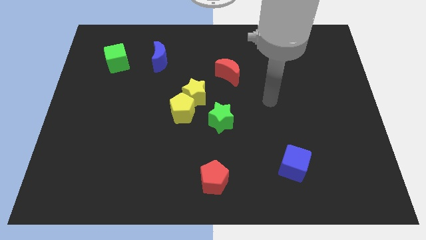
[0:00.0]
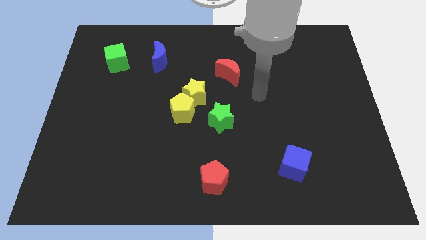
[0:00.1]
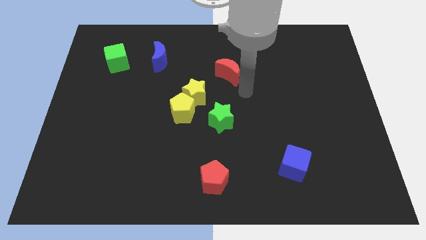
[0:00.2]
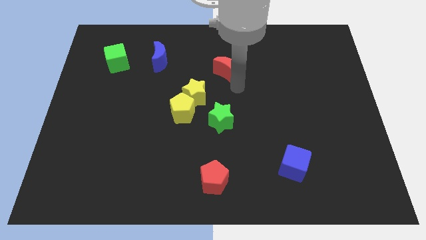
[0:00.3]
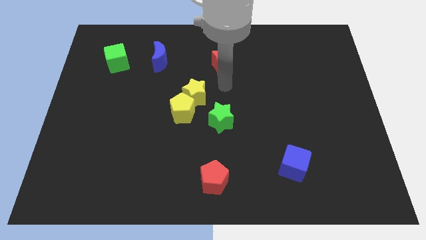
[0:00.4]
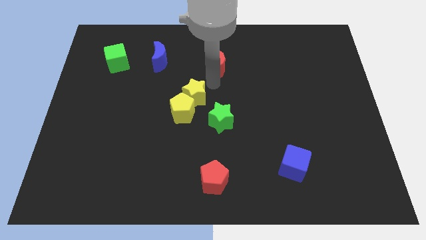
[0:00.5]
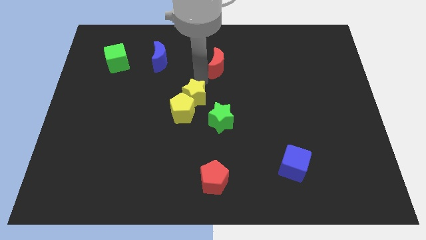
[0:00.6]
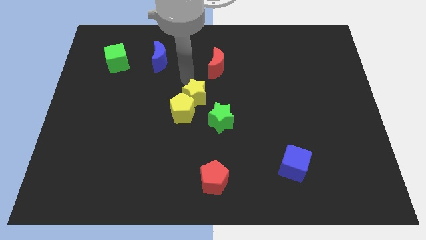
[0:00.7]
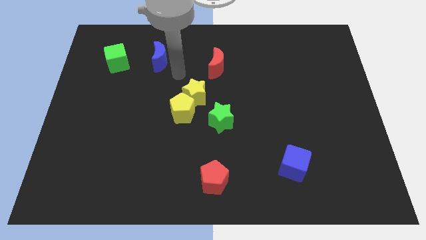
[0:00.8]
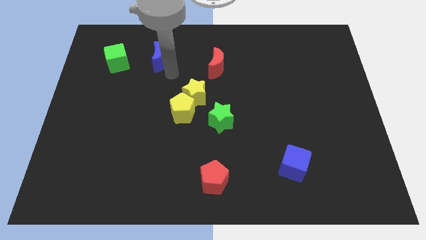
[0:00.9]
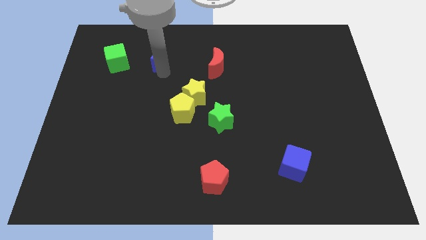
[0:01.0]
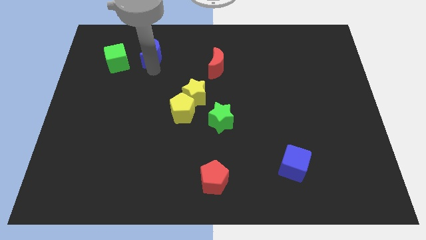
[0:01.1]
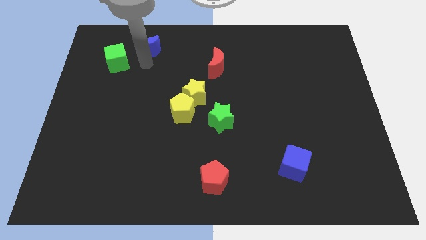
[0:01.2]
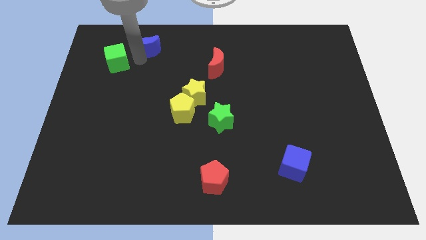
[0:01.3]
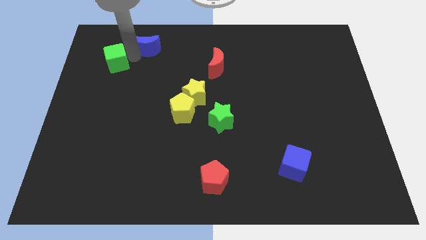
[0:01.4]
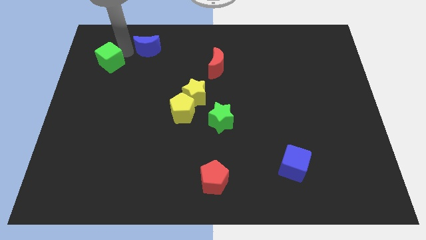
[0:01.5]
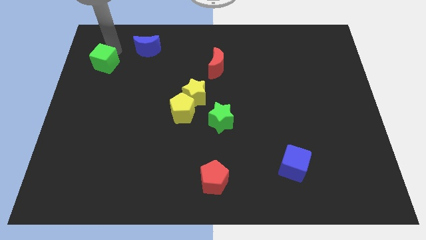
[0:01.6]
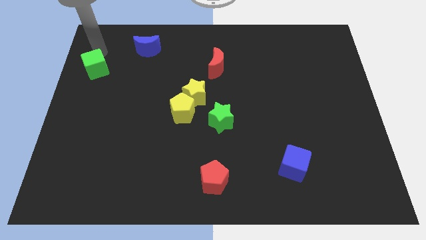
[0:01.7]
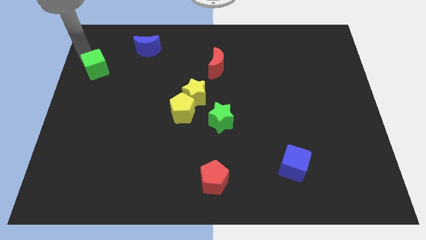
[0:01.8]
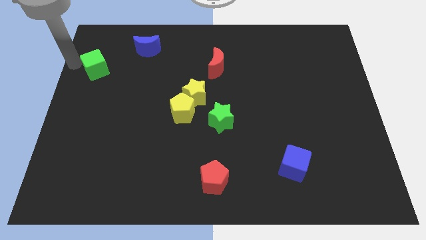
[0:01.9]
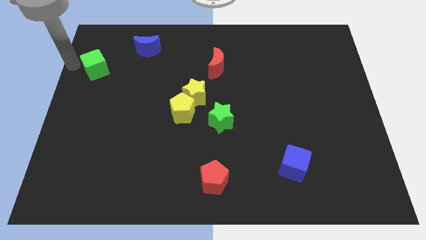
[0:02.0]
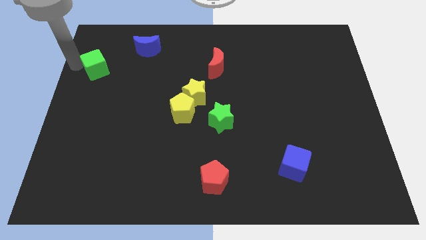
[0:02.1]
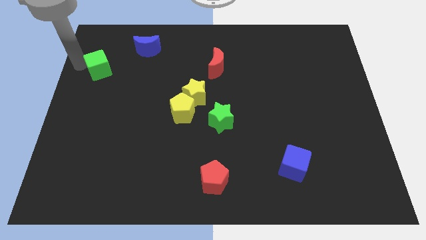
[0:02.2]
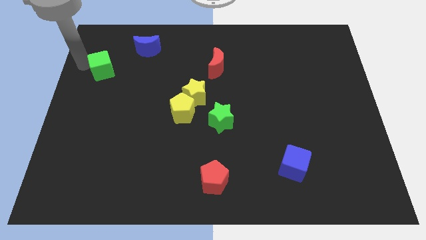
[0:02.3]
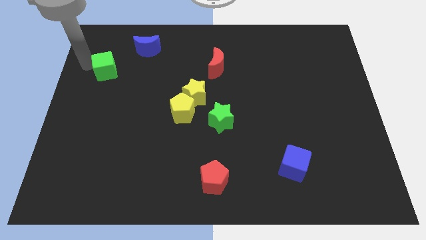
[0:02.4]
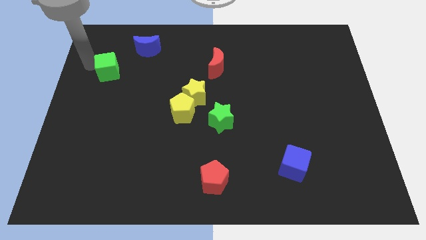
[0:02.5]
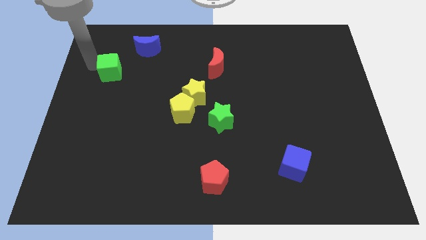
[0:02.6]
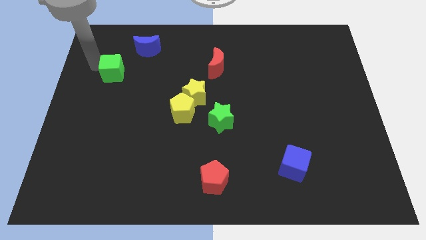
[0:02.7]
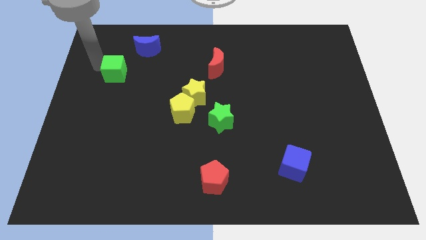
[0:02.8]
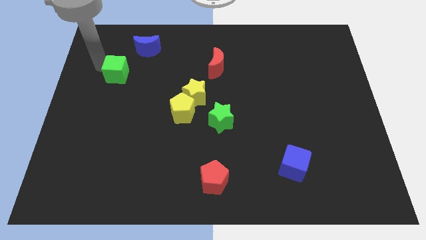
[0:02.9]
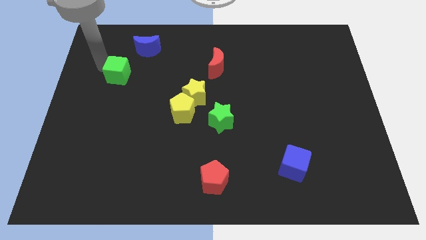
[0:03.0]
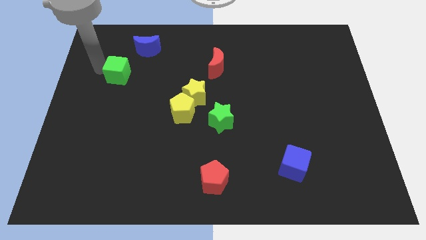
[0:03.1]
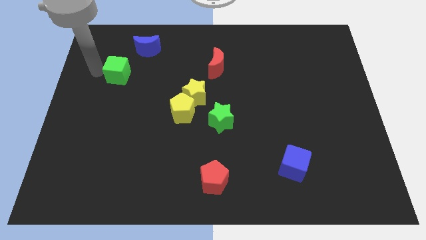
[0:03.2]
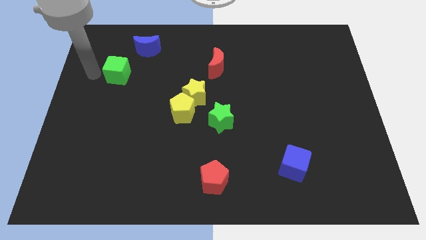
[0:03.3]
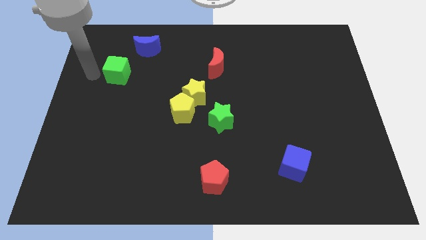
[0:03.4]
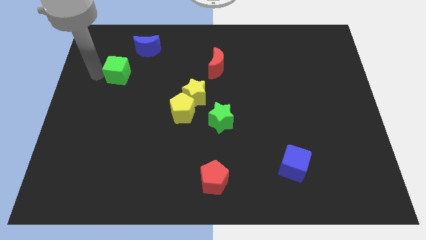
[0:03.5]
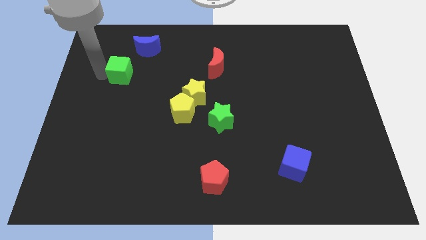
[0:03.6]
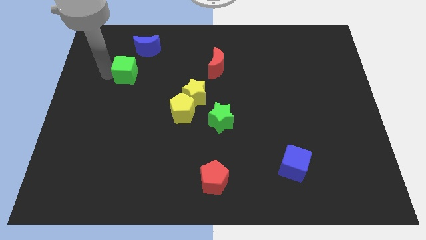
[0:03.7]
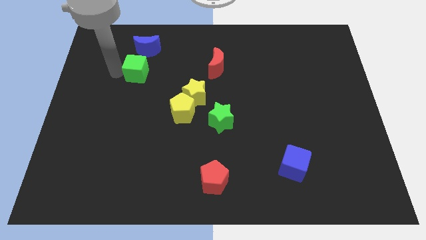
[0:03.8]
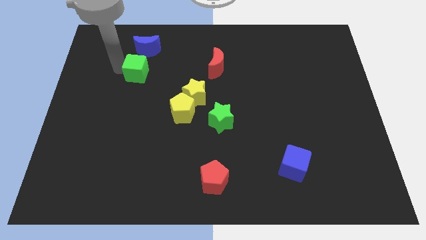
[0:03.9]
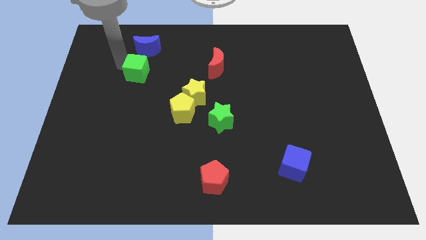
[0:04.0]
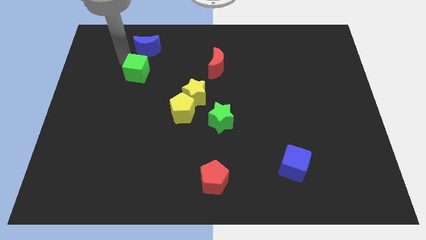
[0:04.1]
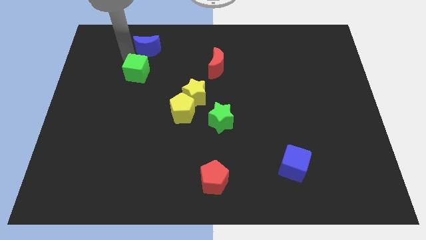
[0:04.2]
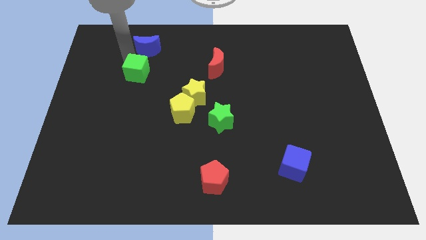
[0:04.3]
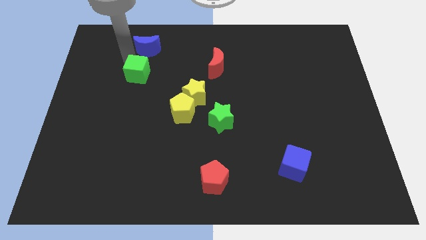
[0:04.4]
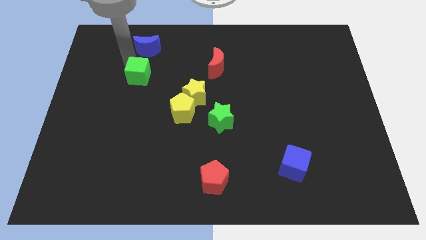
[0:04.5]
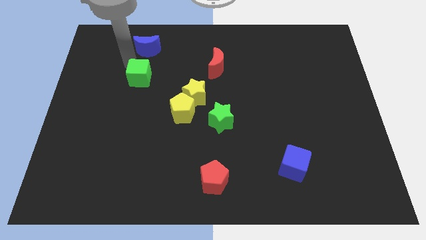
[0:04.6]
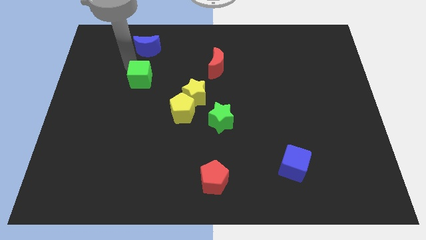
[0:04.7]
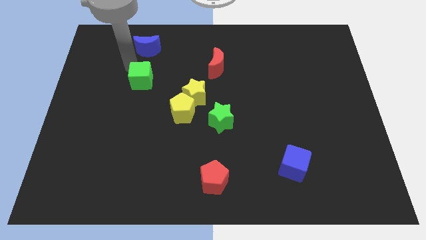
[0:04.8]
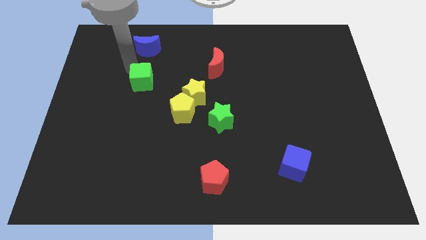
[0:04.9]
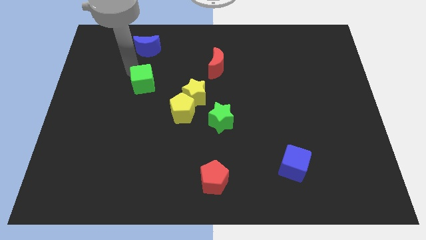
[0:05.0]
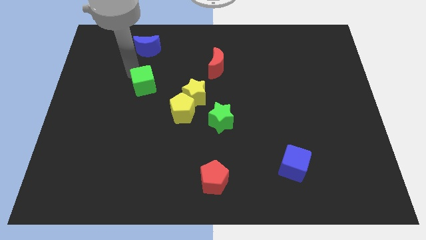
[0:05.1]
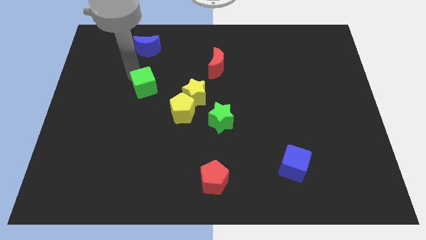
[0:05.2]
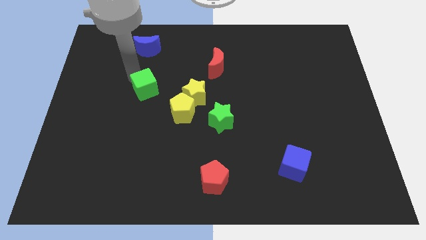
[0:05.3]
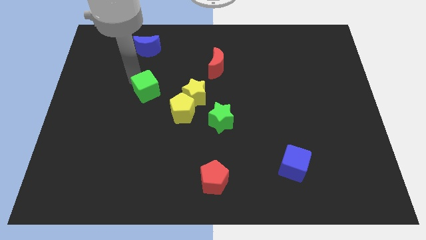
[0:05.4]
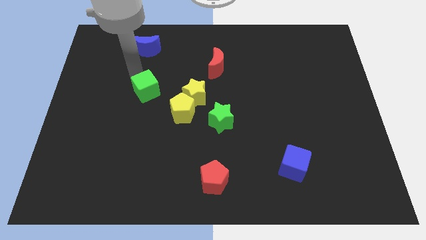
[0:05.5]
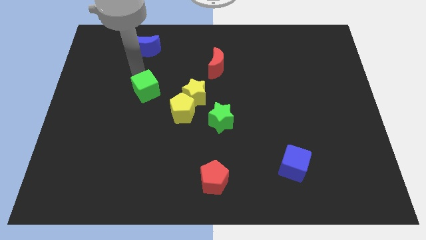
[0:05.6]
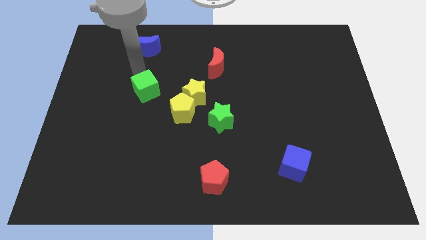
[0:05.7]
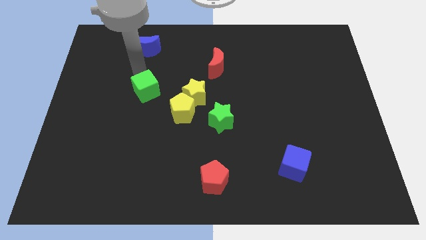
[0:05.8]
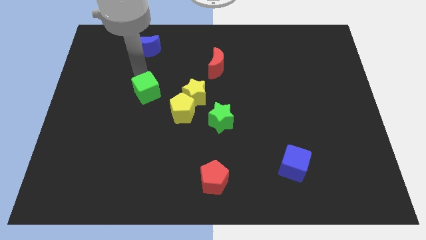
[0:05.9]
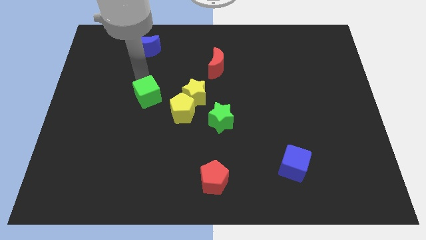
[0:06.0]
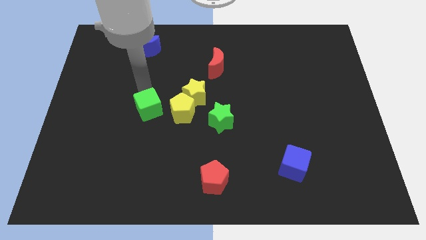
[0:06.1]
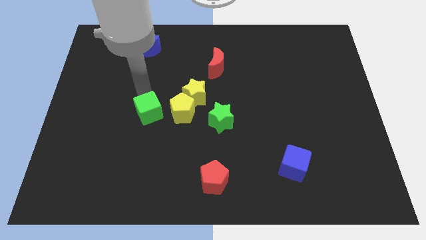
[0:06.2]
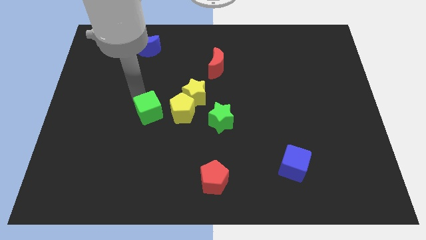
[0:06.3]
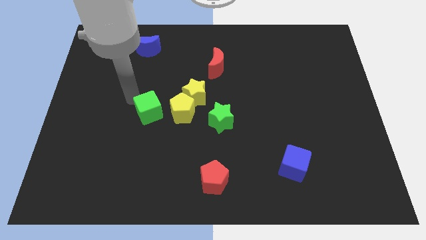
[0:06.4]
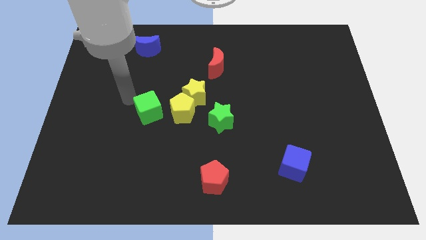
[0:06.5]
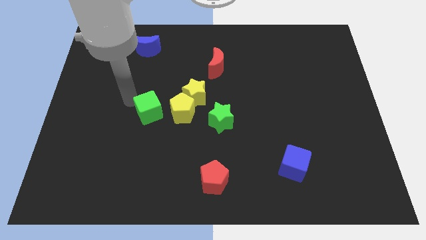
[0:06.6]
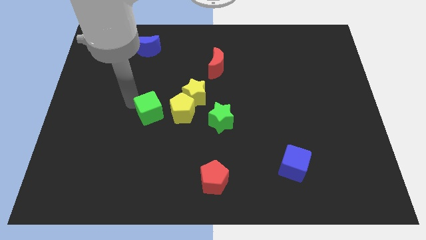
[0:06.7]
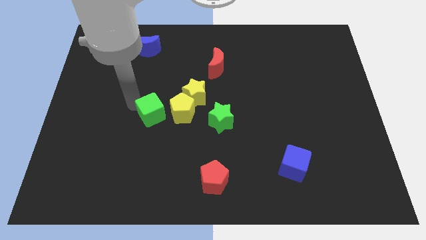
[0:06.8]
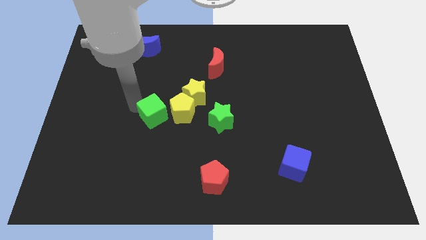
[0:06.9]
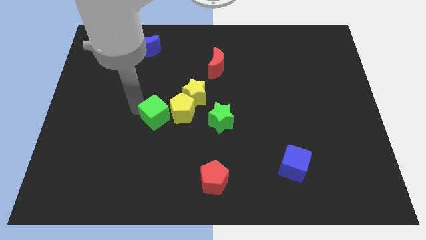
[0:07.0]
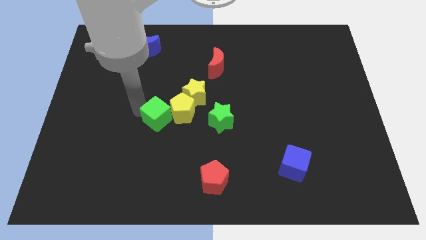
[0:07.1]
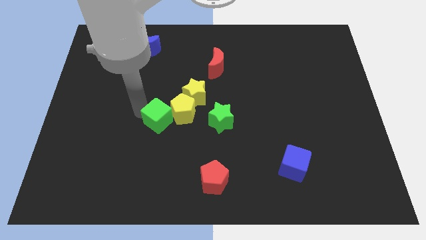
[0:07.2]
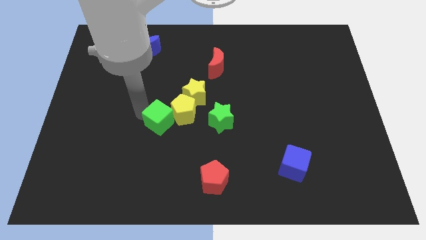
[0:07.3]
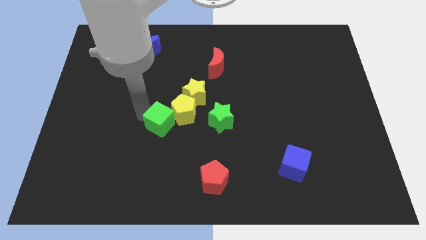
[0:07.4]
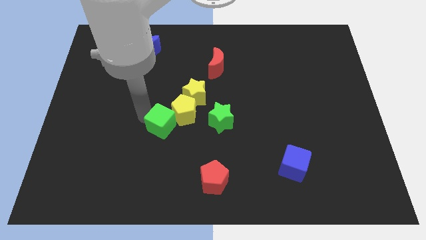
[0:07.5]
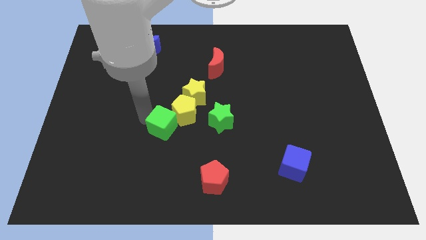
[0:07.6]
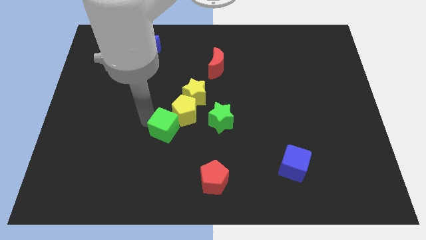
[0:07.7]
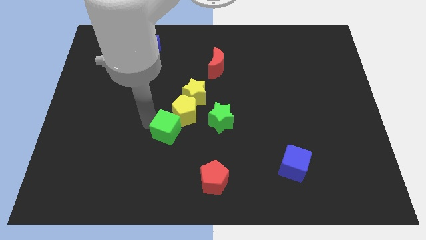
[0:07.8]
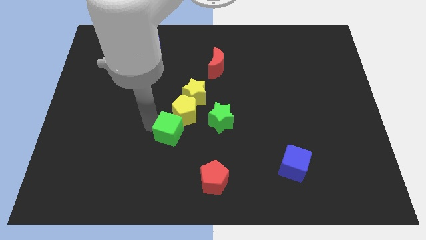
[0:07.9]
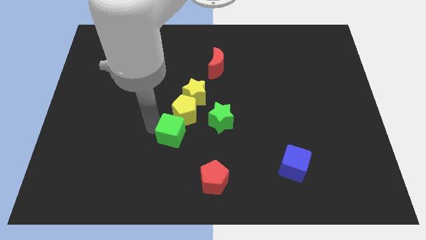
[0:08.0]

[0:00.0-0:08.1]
put the green cube to the bottom of the yellow star
